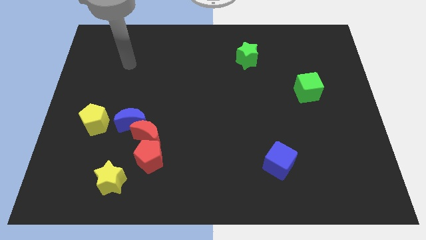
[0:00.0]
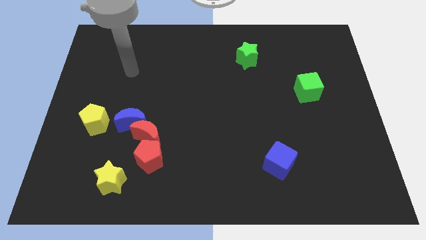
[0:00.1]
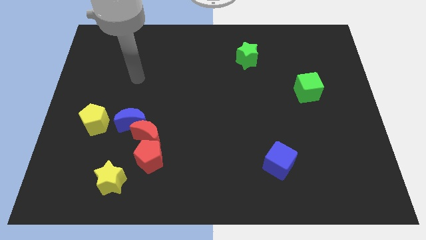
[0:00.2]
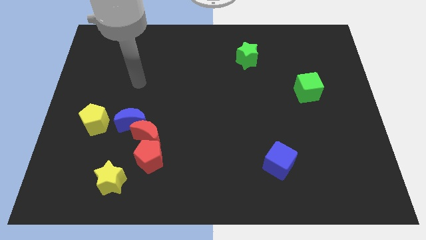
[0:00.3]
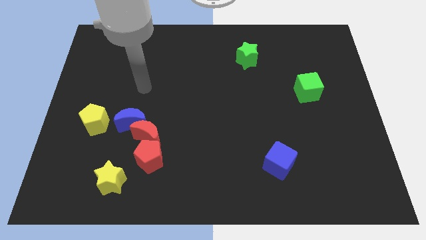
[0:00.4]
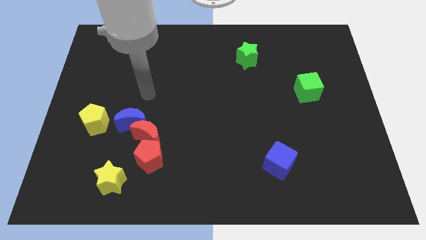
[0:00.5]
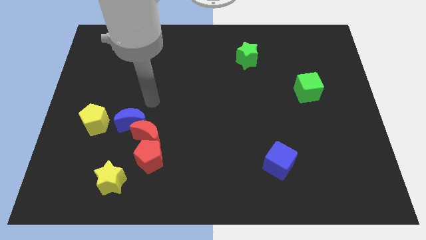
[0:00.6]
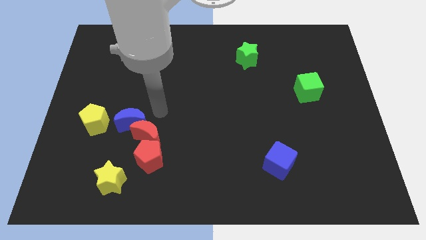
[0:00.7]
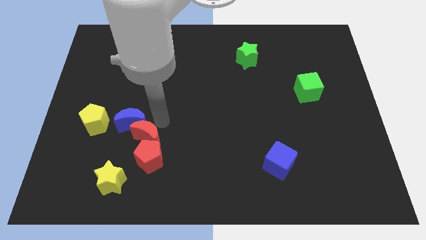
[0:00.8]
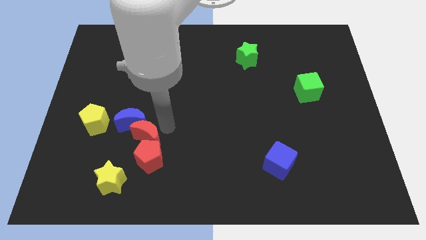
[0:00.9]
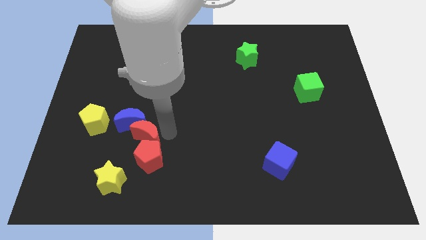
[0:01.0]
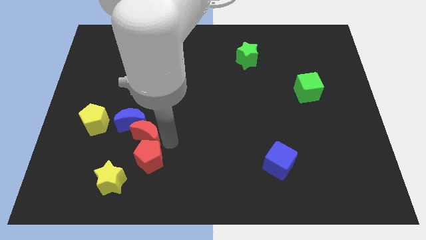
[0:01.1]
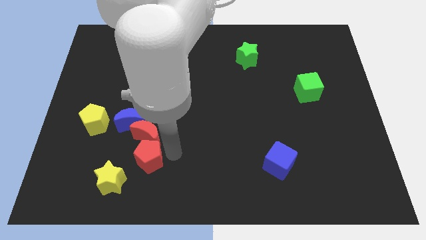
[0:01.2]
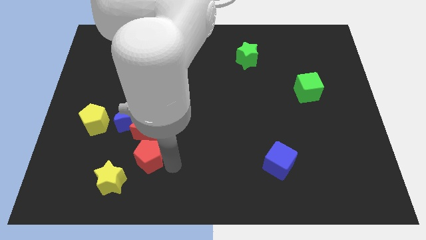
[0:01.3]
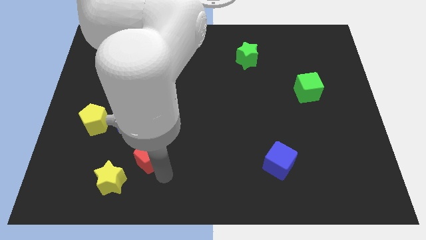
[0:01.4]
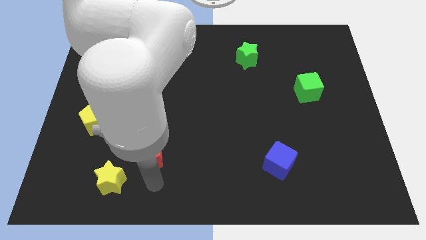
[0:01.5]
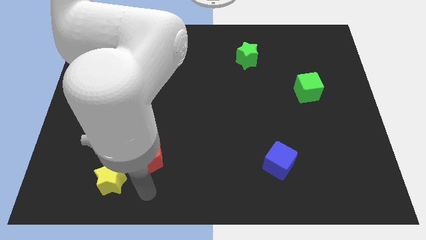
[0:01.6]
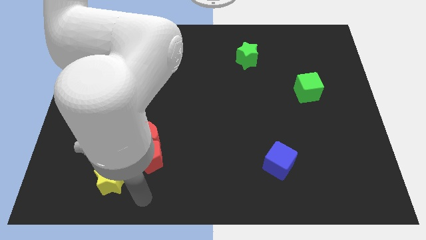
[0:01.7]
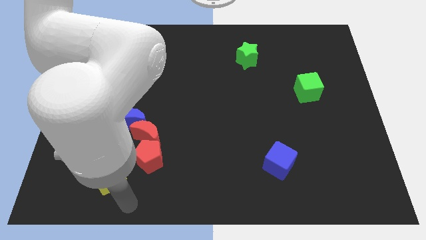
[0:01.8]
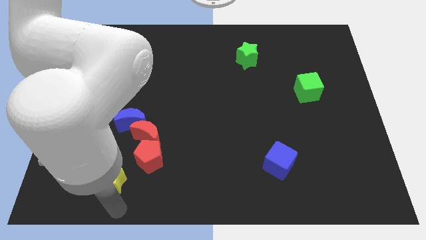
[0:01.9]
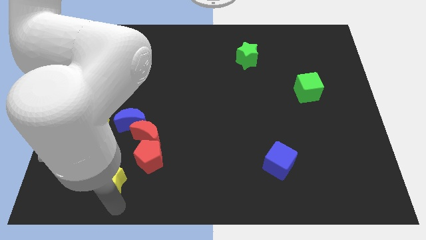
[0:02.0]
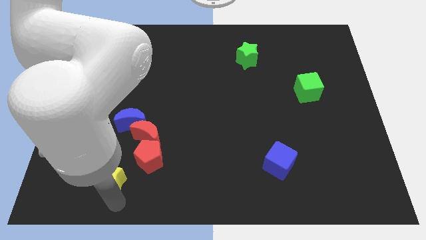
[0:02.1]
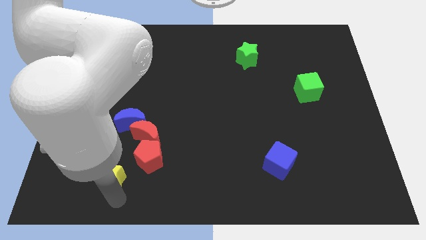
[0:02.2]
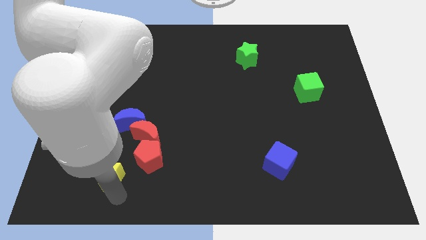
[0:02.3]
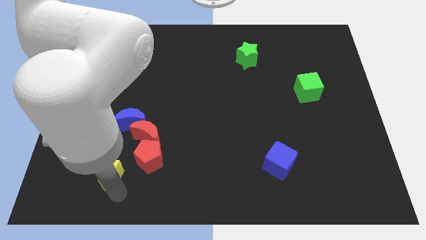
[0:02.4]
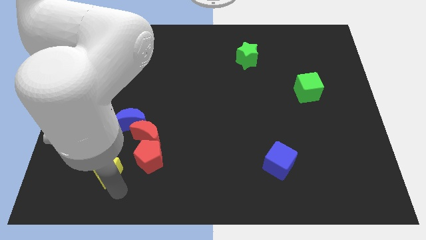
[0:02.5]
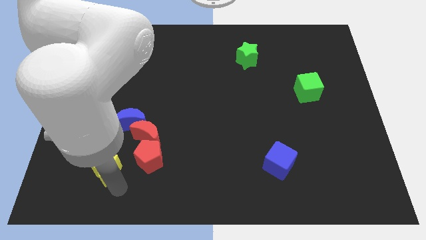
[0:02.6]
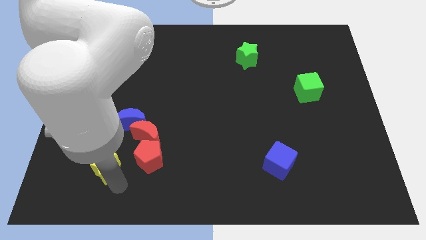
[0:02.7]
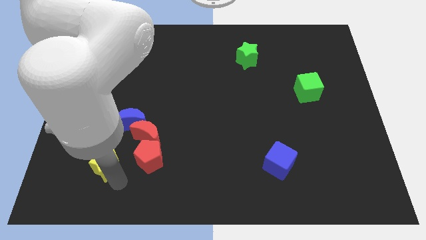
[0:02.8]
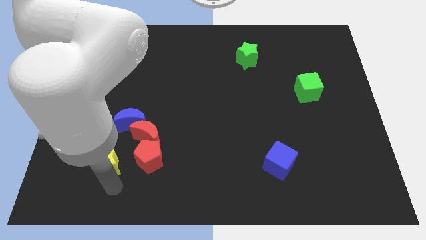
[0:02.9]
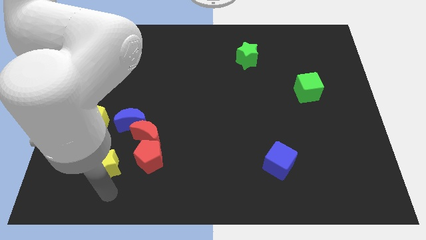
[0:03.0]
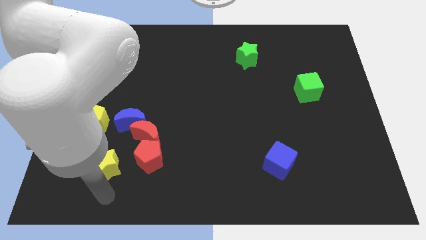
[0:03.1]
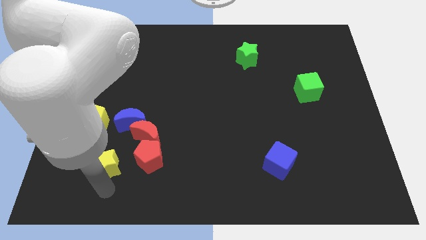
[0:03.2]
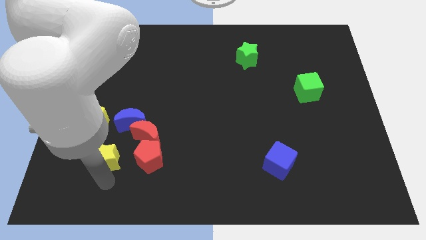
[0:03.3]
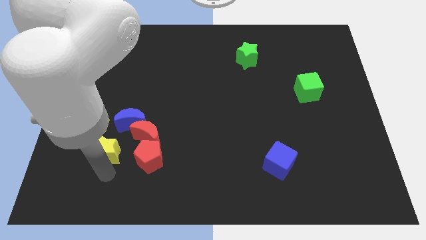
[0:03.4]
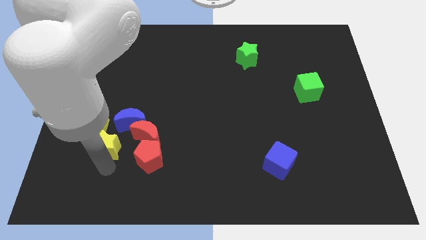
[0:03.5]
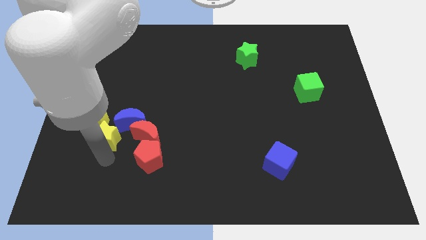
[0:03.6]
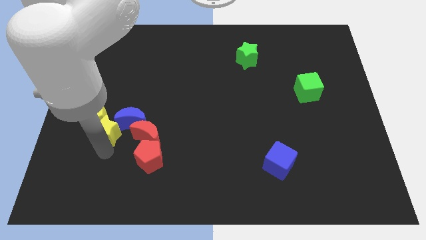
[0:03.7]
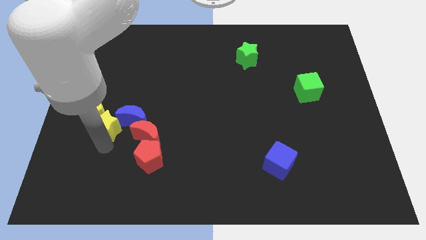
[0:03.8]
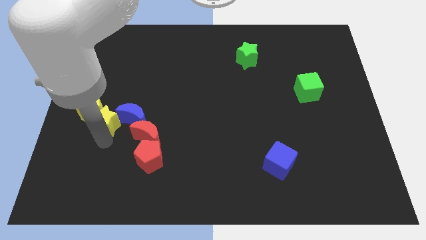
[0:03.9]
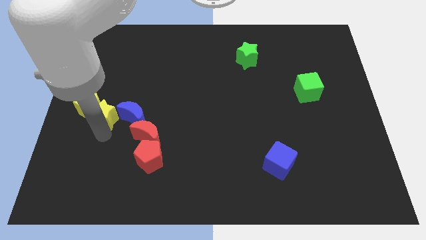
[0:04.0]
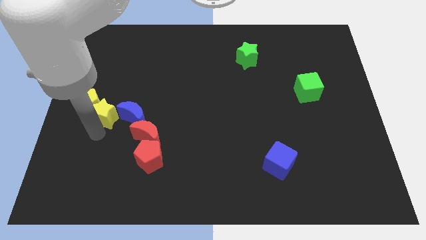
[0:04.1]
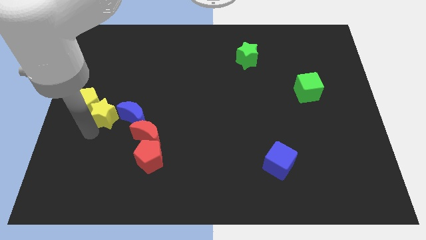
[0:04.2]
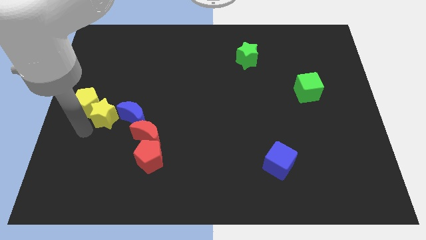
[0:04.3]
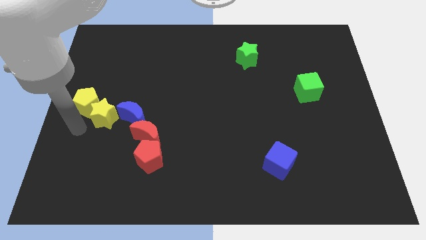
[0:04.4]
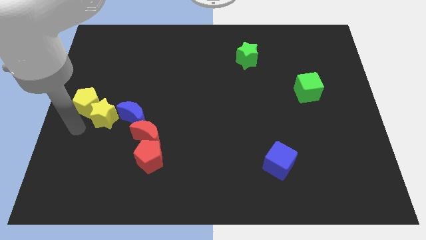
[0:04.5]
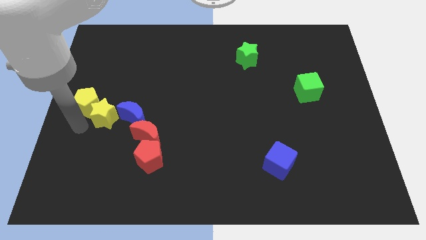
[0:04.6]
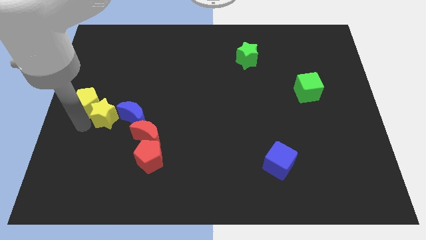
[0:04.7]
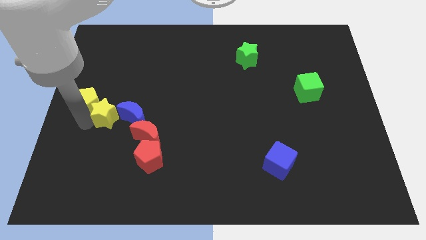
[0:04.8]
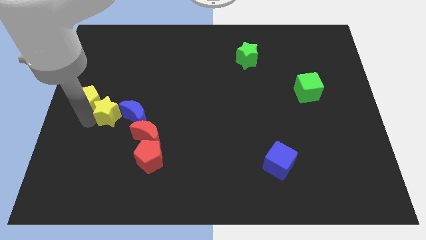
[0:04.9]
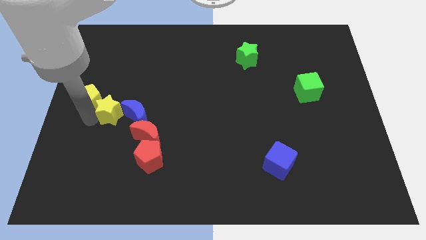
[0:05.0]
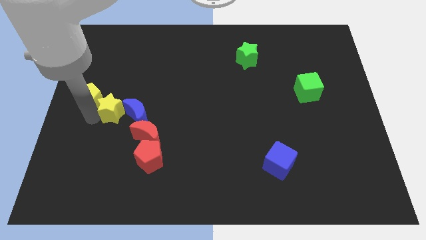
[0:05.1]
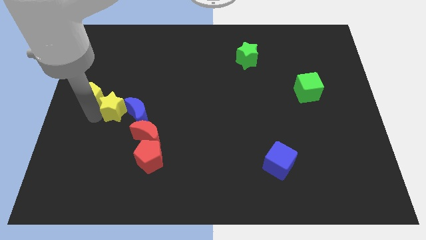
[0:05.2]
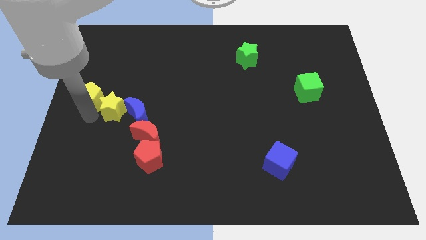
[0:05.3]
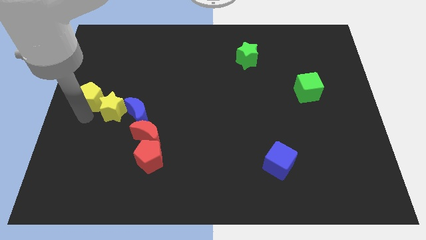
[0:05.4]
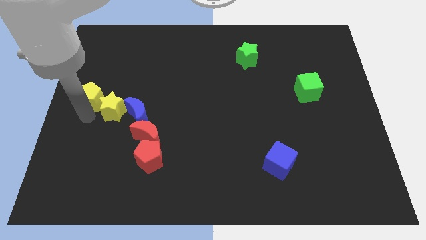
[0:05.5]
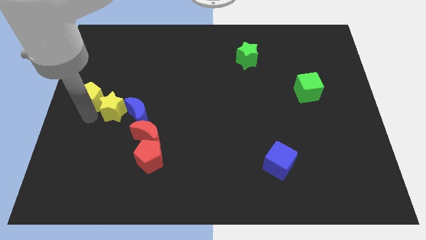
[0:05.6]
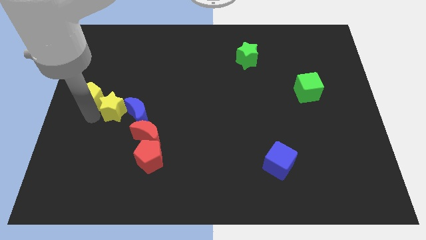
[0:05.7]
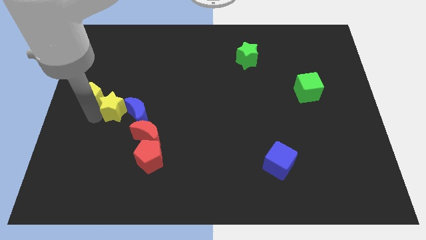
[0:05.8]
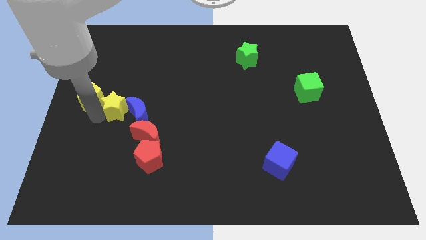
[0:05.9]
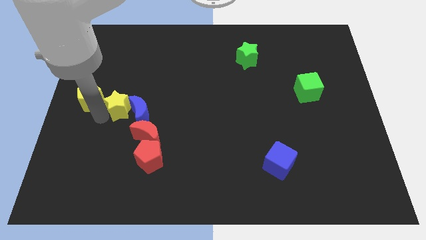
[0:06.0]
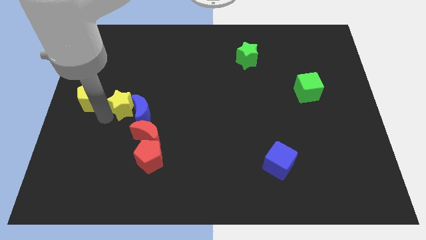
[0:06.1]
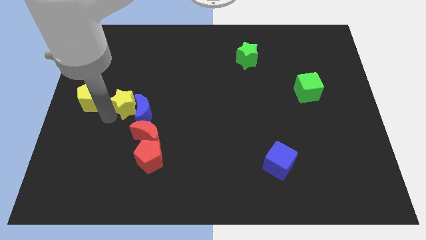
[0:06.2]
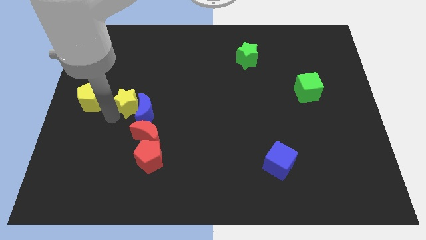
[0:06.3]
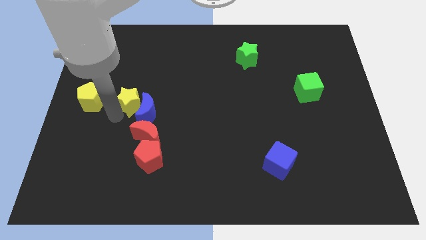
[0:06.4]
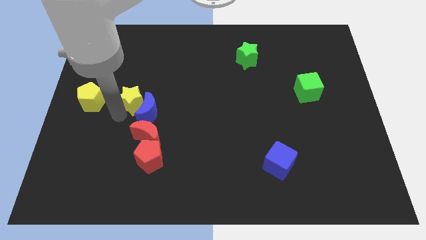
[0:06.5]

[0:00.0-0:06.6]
slide the yellow star to the top of the red moon

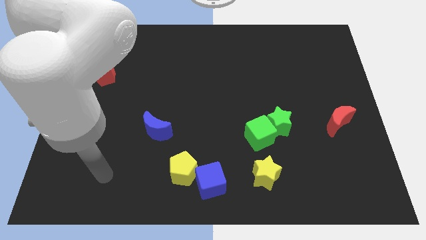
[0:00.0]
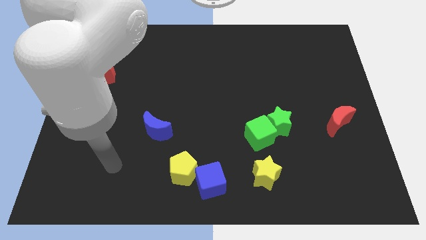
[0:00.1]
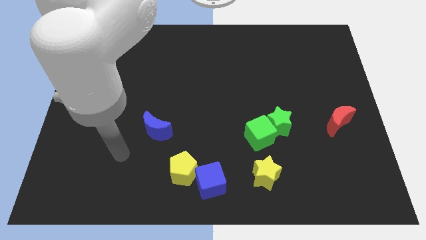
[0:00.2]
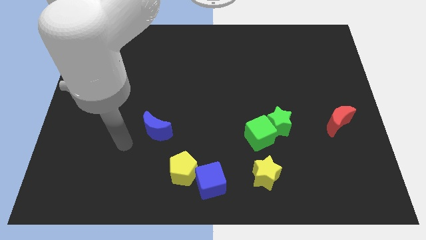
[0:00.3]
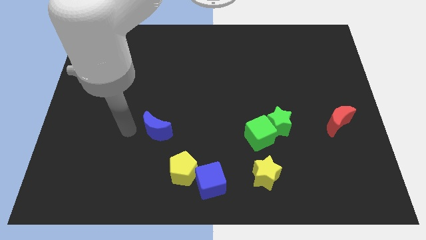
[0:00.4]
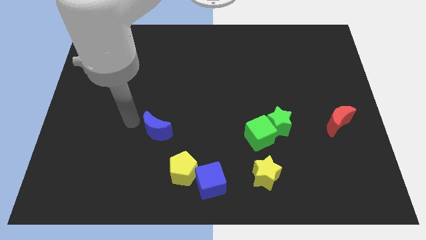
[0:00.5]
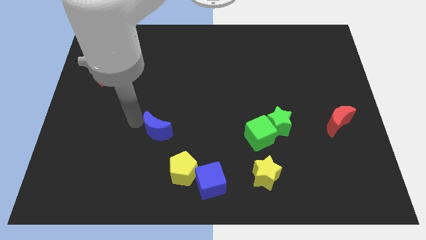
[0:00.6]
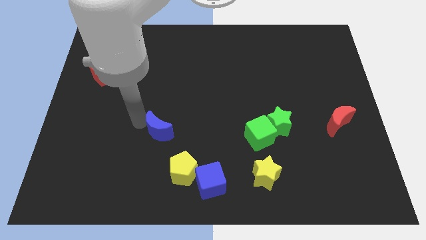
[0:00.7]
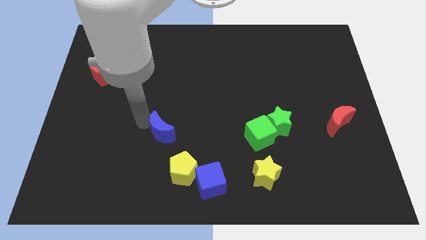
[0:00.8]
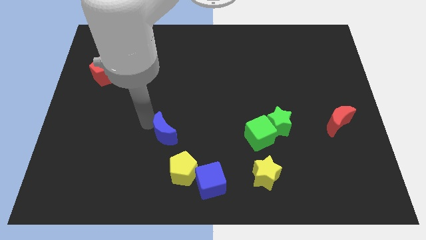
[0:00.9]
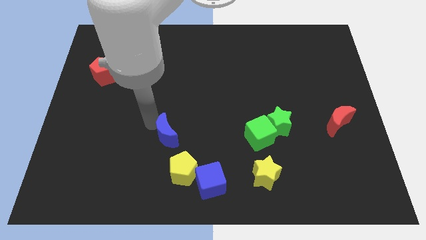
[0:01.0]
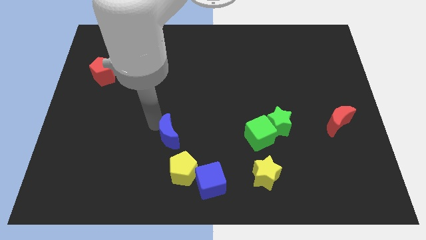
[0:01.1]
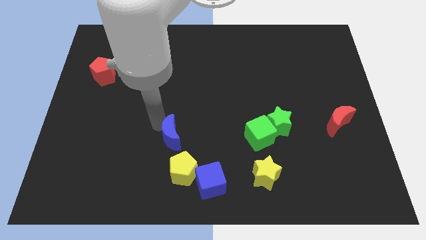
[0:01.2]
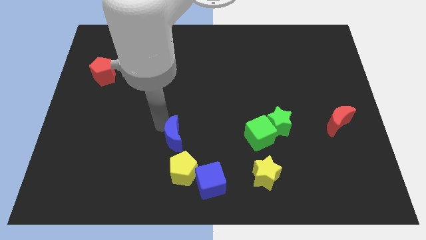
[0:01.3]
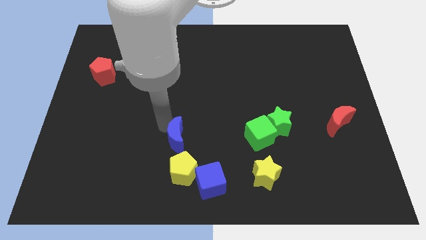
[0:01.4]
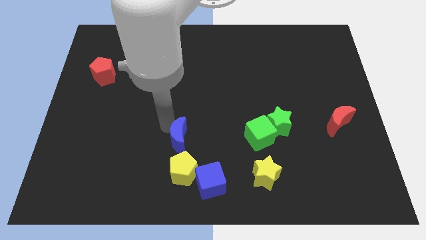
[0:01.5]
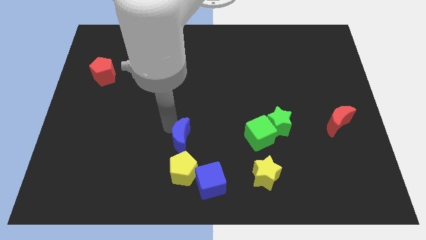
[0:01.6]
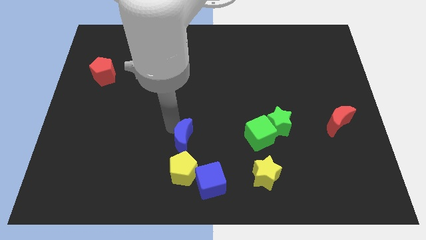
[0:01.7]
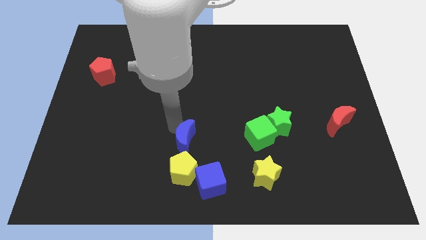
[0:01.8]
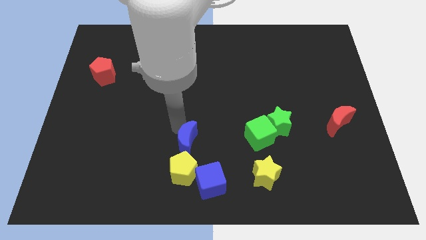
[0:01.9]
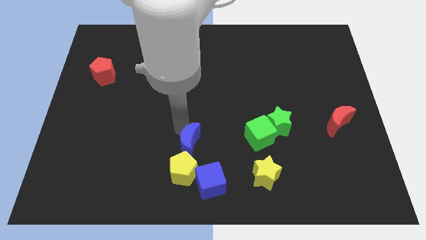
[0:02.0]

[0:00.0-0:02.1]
move the blue moon to the top right of the yellow pentagon
